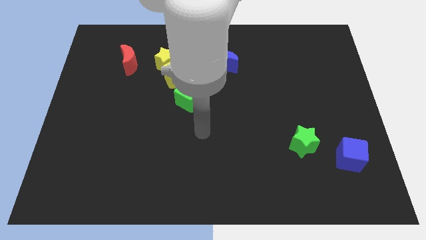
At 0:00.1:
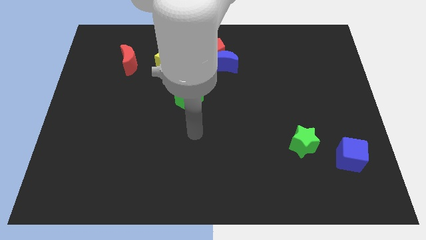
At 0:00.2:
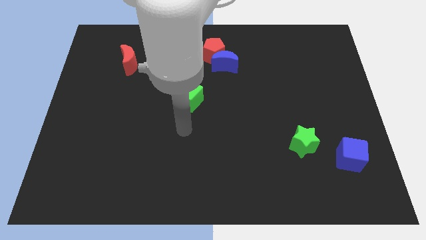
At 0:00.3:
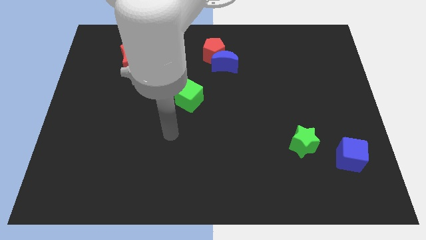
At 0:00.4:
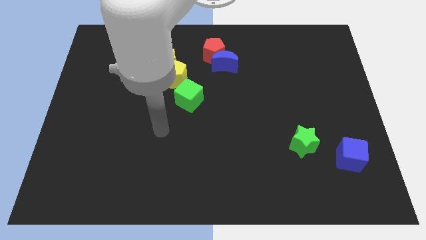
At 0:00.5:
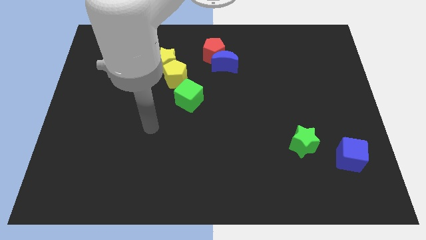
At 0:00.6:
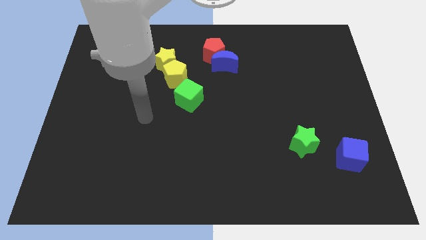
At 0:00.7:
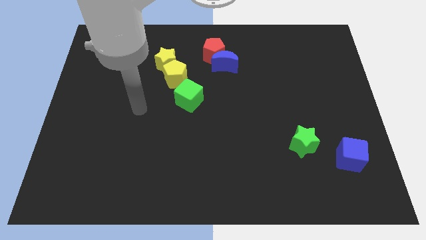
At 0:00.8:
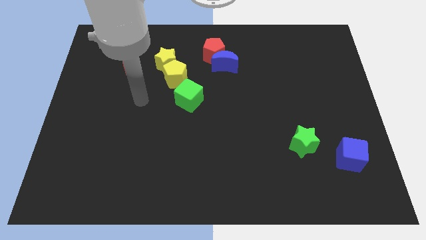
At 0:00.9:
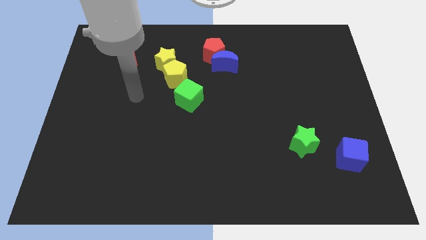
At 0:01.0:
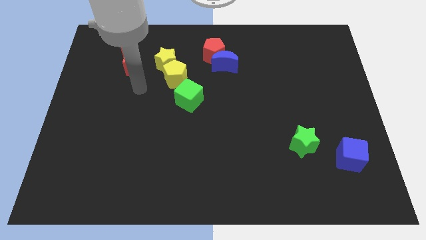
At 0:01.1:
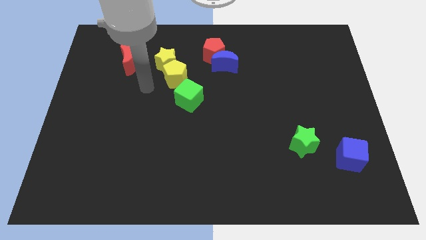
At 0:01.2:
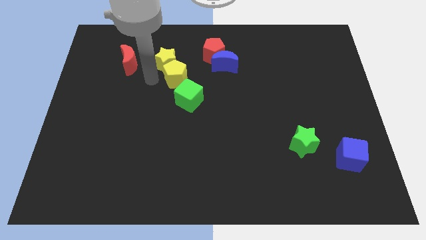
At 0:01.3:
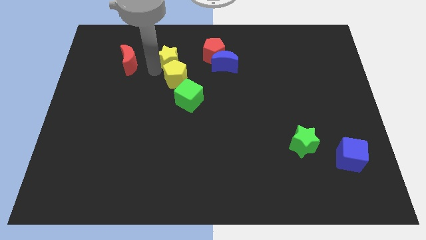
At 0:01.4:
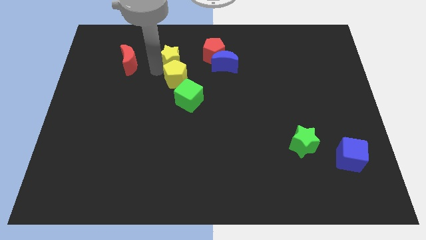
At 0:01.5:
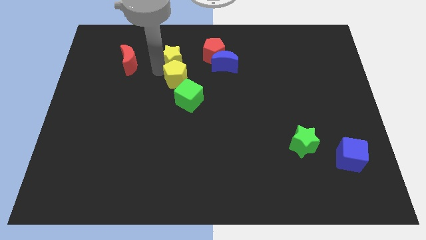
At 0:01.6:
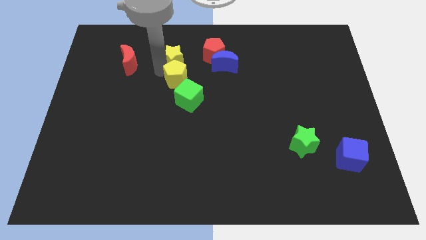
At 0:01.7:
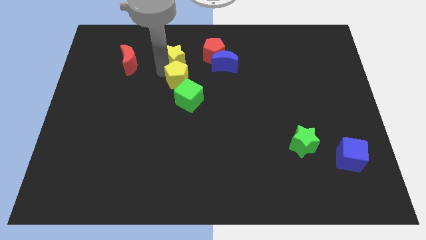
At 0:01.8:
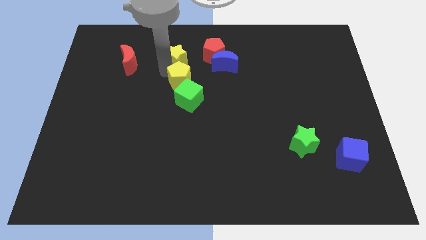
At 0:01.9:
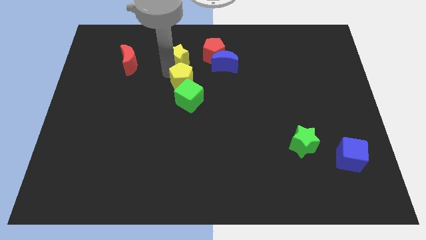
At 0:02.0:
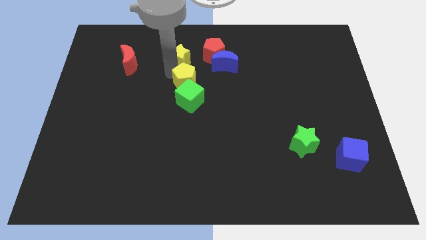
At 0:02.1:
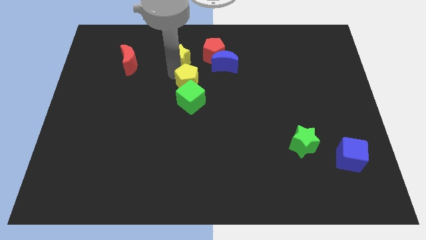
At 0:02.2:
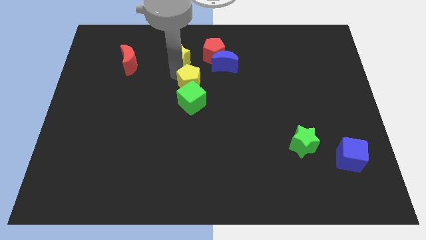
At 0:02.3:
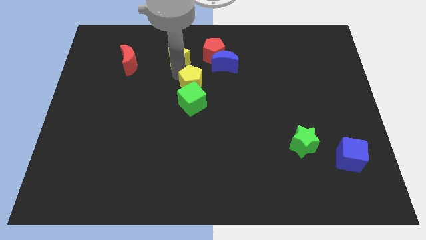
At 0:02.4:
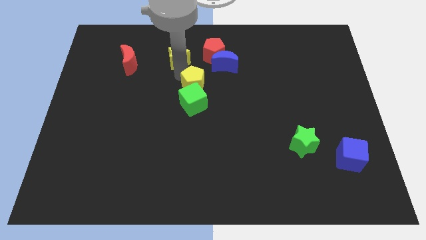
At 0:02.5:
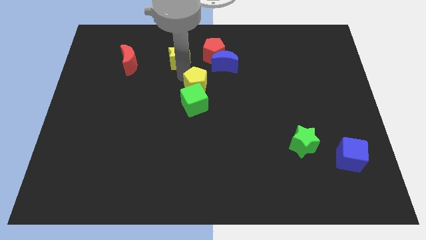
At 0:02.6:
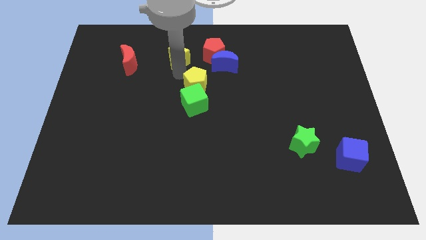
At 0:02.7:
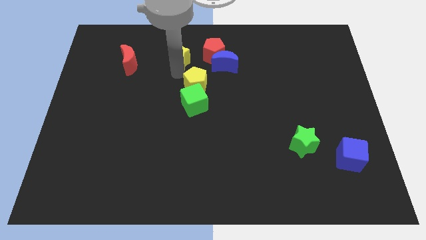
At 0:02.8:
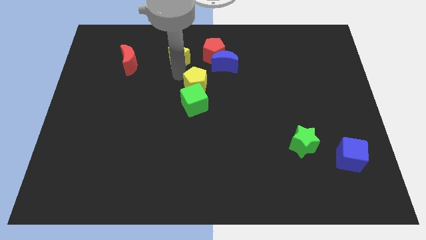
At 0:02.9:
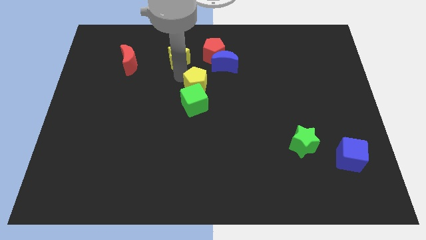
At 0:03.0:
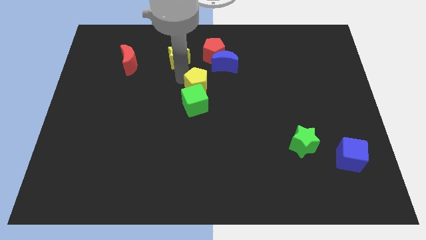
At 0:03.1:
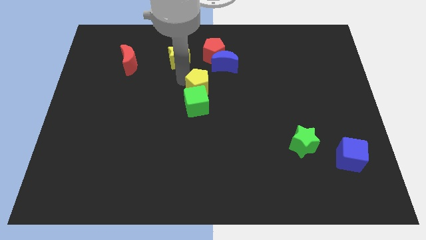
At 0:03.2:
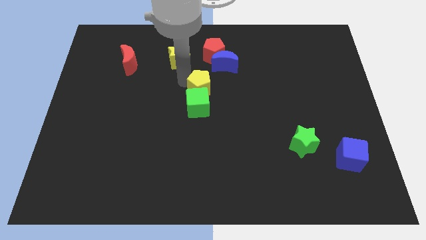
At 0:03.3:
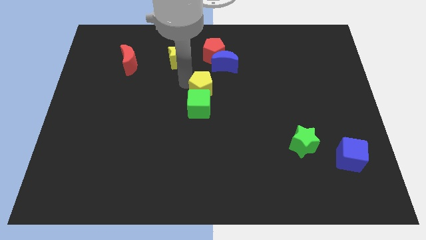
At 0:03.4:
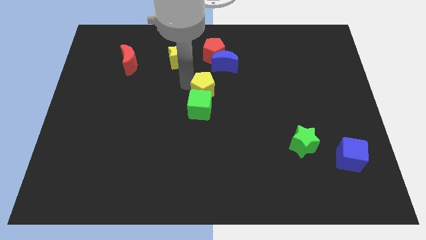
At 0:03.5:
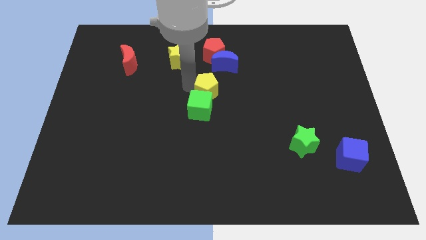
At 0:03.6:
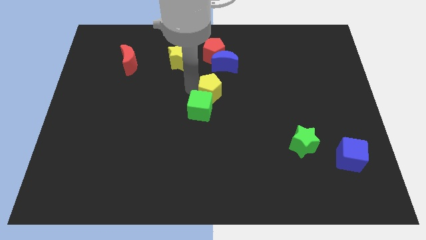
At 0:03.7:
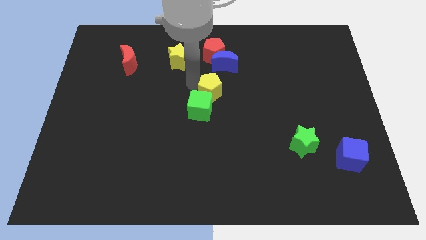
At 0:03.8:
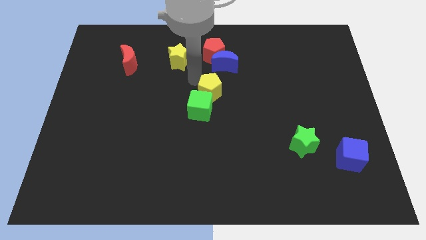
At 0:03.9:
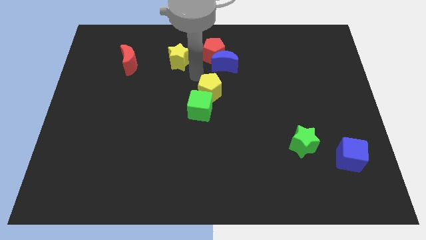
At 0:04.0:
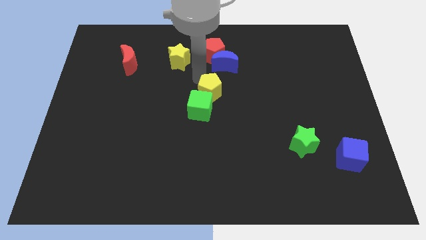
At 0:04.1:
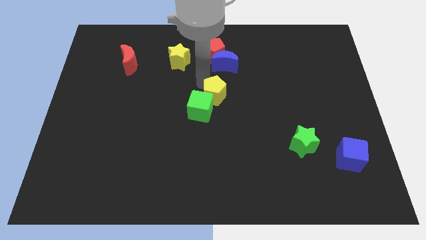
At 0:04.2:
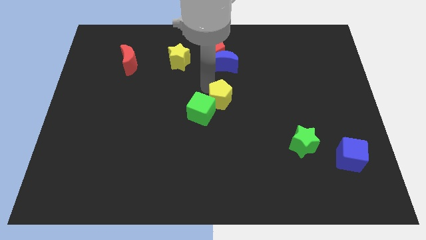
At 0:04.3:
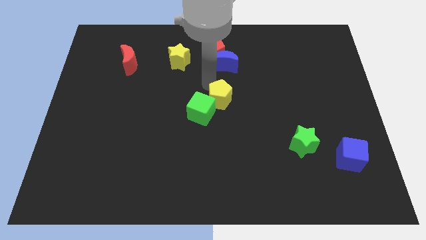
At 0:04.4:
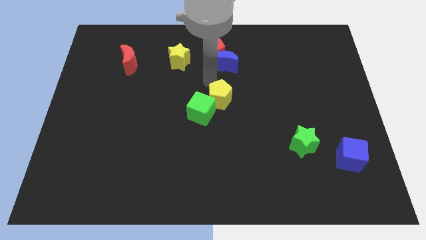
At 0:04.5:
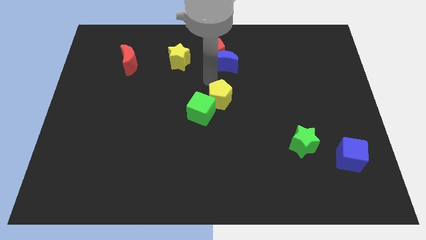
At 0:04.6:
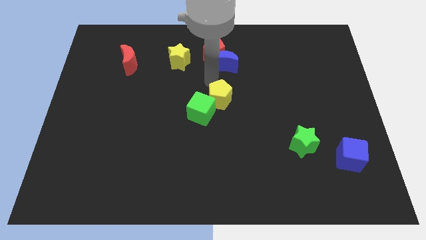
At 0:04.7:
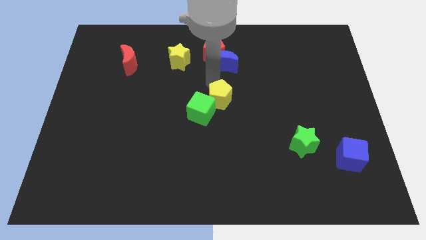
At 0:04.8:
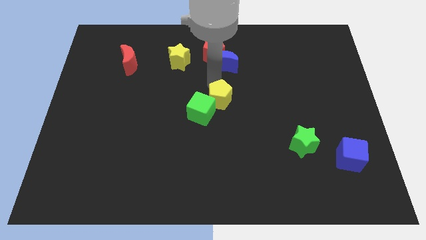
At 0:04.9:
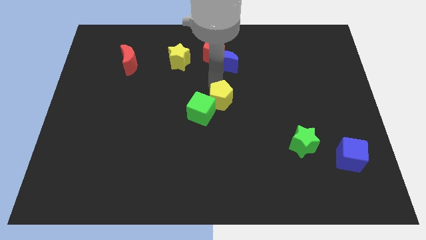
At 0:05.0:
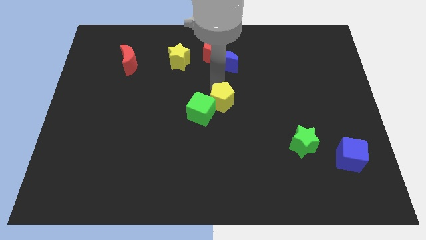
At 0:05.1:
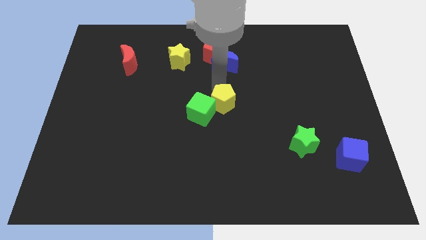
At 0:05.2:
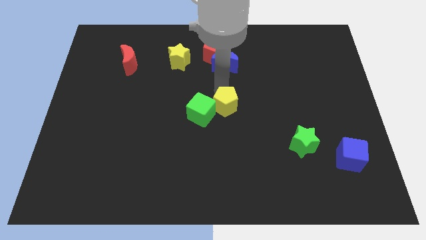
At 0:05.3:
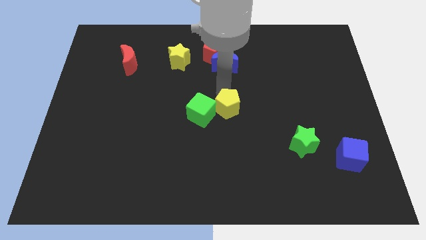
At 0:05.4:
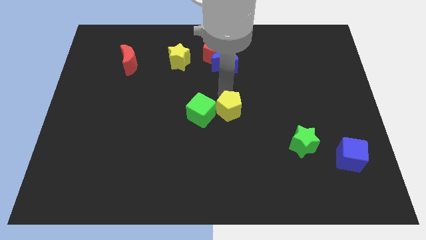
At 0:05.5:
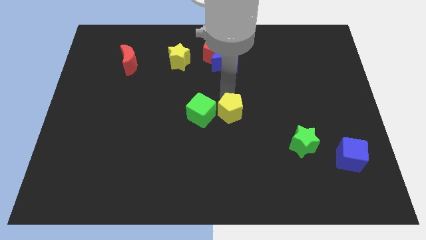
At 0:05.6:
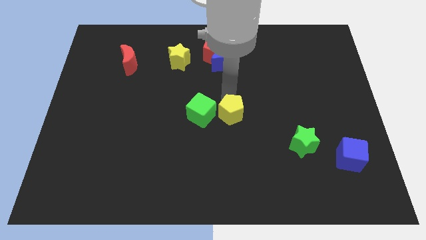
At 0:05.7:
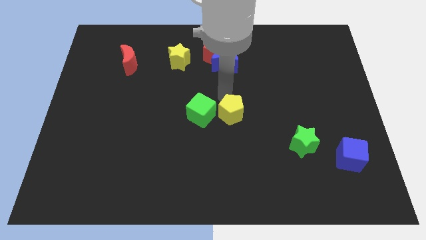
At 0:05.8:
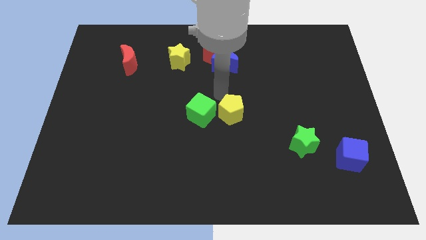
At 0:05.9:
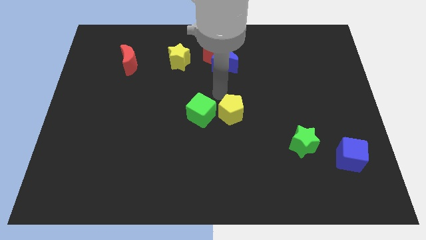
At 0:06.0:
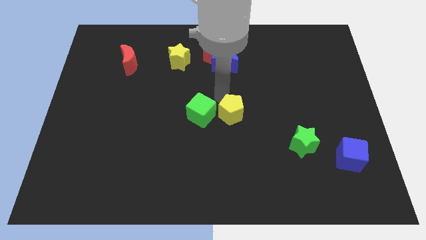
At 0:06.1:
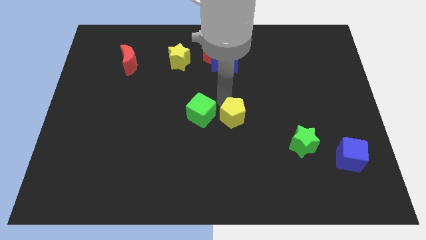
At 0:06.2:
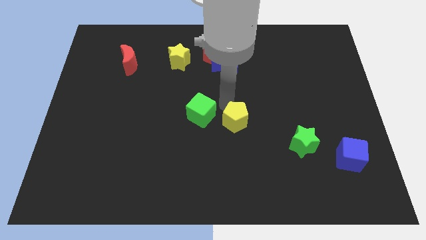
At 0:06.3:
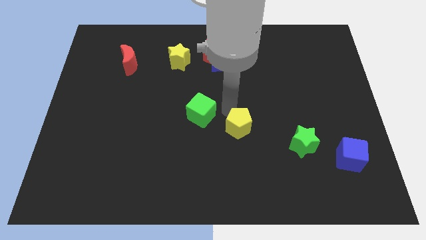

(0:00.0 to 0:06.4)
push the yellow pentagon downwards and then to the right

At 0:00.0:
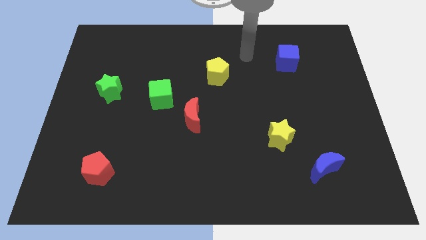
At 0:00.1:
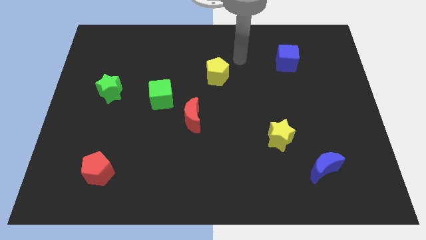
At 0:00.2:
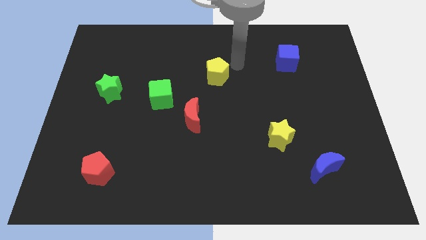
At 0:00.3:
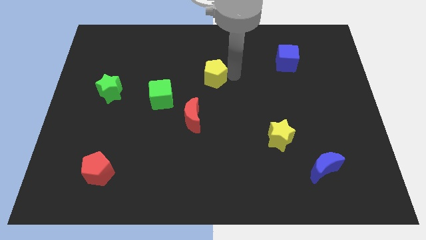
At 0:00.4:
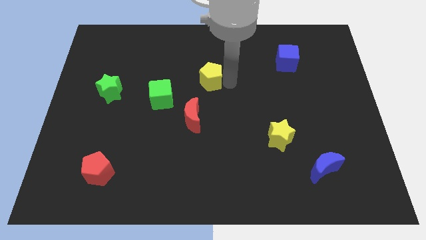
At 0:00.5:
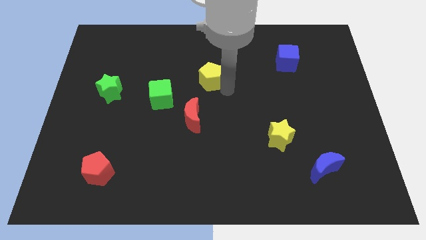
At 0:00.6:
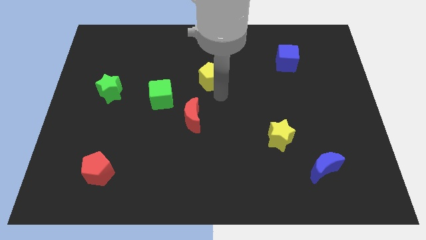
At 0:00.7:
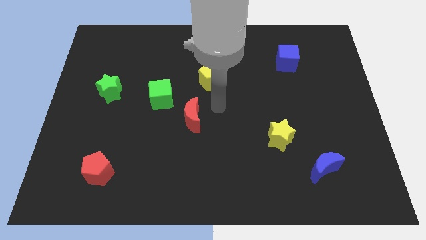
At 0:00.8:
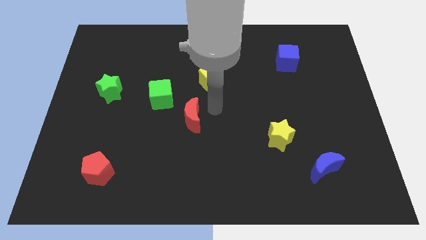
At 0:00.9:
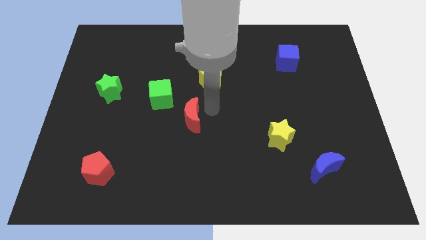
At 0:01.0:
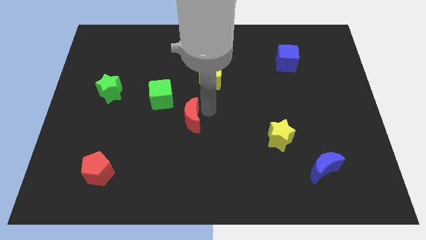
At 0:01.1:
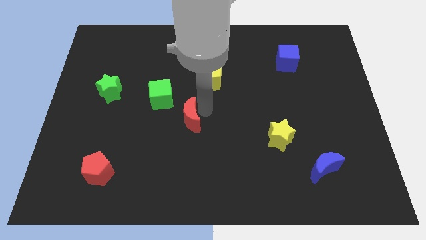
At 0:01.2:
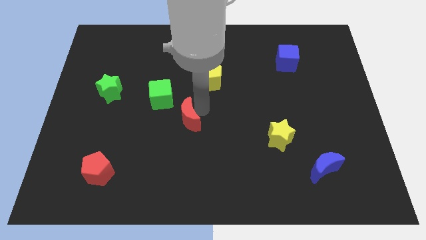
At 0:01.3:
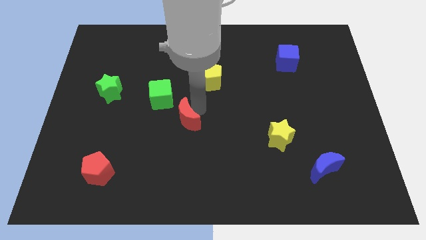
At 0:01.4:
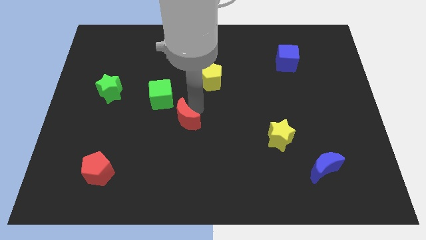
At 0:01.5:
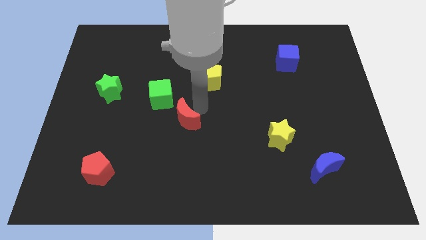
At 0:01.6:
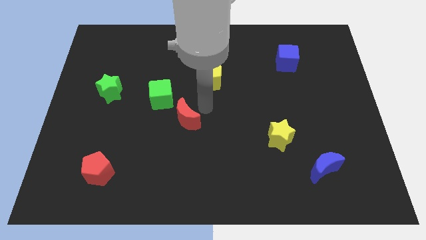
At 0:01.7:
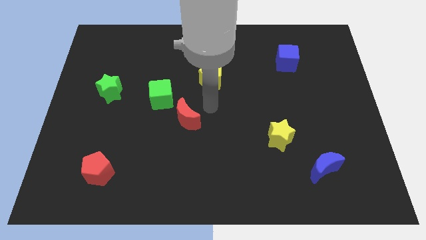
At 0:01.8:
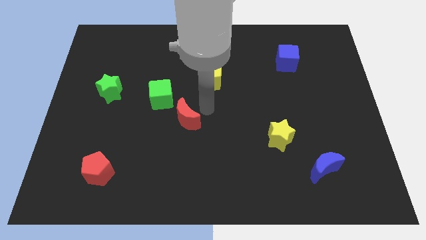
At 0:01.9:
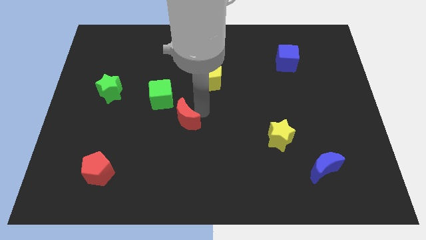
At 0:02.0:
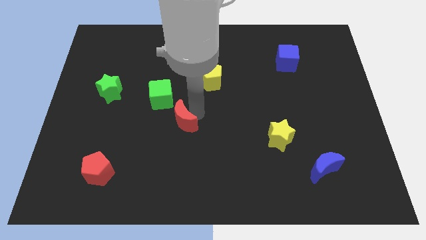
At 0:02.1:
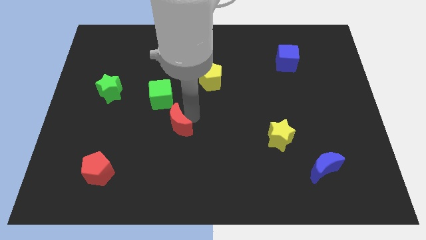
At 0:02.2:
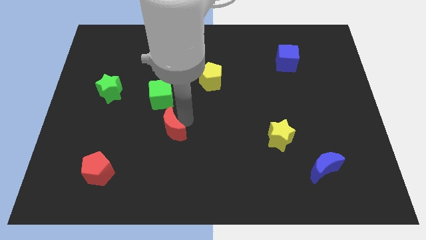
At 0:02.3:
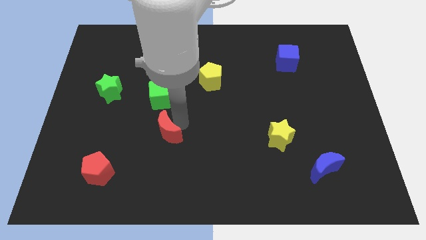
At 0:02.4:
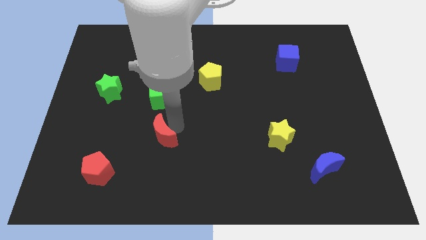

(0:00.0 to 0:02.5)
slide the red moon a little bit down and then left
